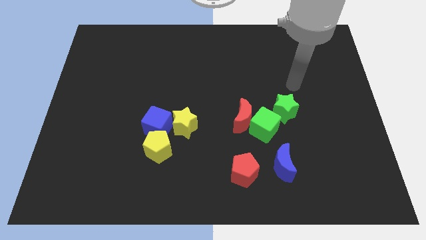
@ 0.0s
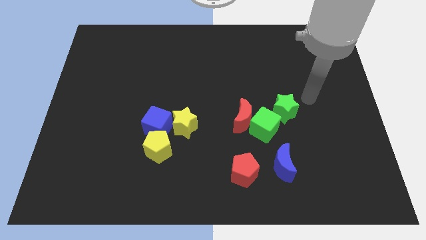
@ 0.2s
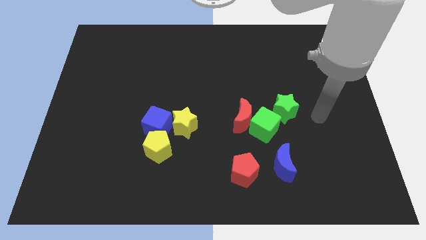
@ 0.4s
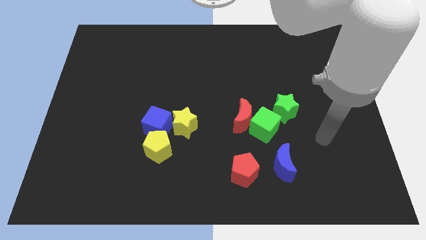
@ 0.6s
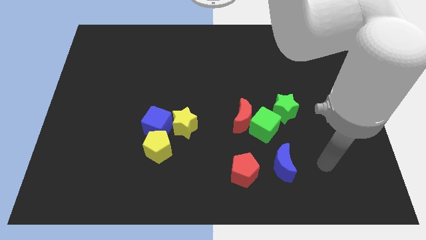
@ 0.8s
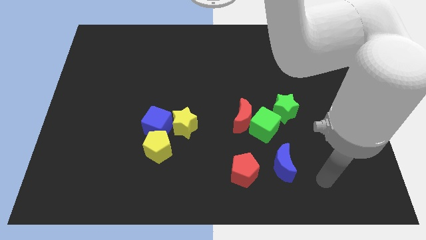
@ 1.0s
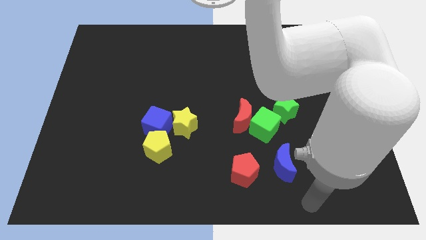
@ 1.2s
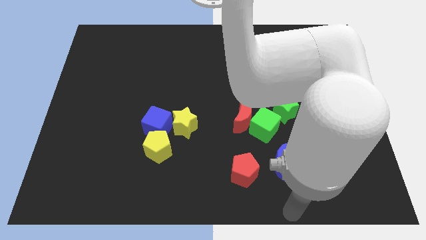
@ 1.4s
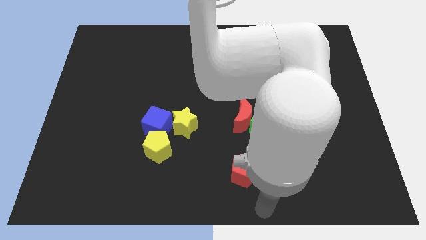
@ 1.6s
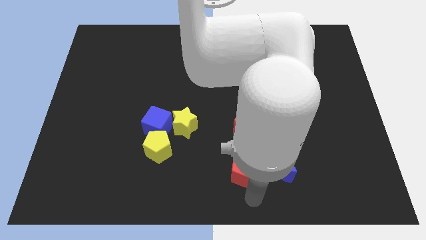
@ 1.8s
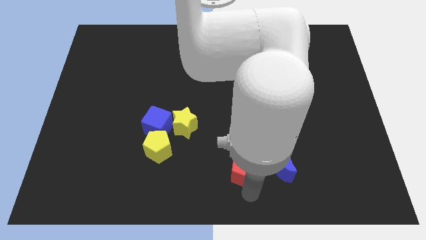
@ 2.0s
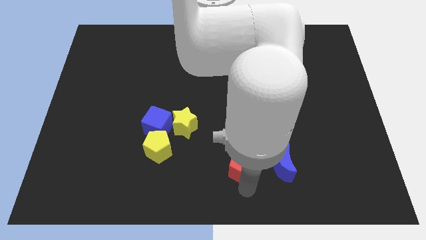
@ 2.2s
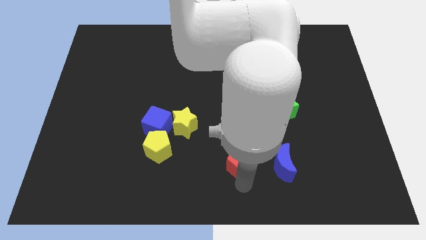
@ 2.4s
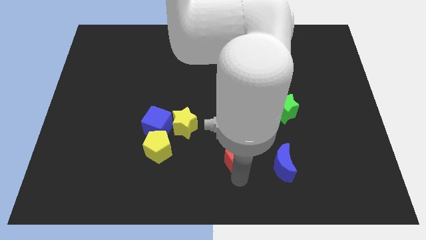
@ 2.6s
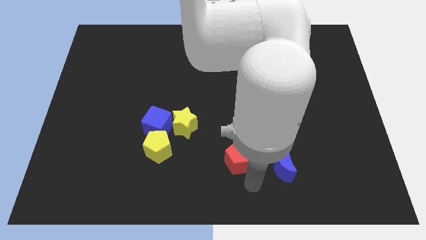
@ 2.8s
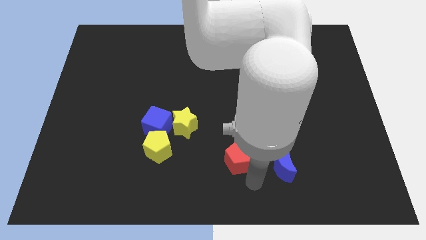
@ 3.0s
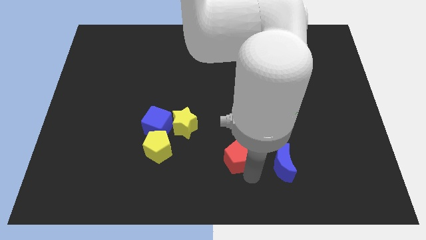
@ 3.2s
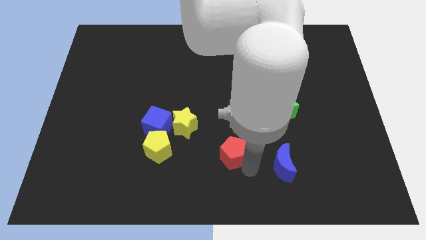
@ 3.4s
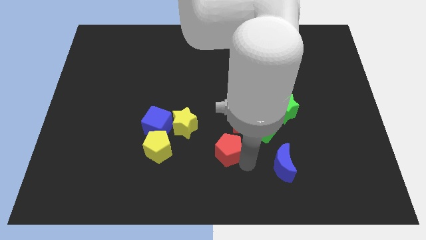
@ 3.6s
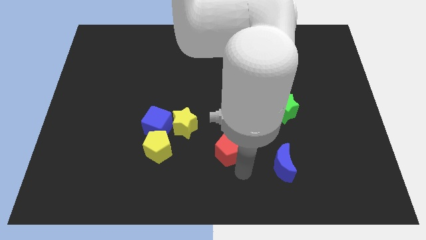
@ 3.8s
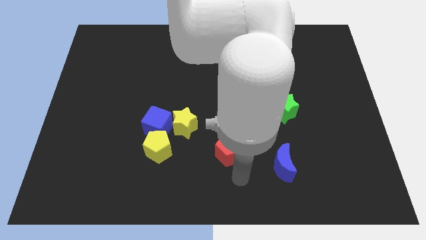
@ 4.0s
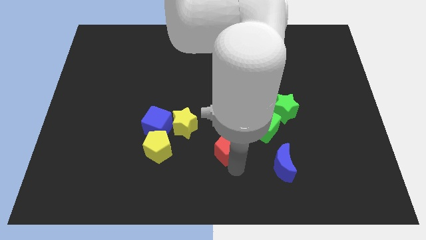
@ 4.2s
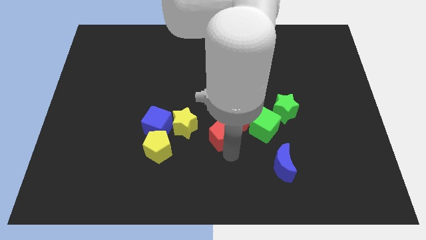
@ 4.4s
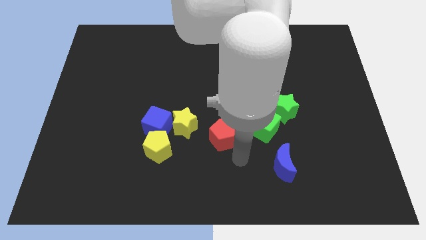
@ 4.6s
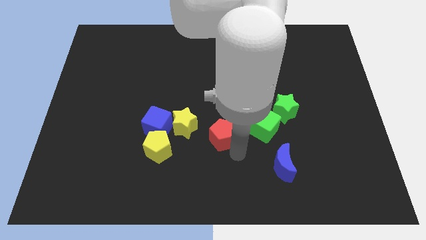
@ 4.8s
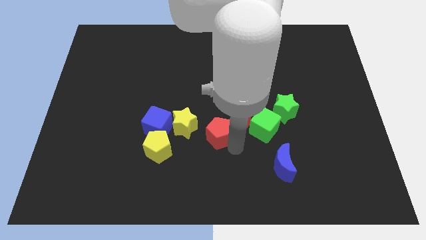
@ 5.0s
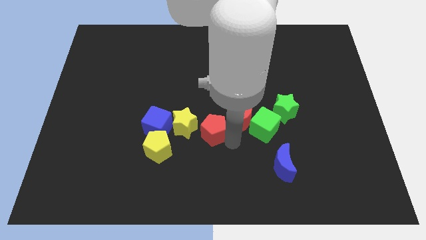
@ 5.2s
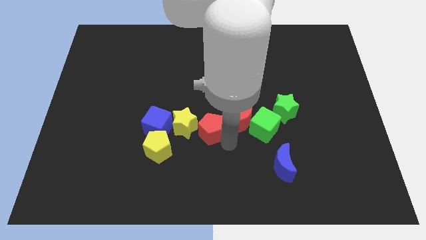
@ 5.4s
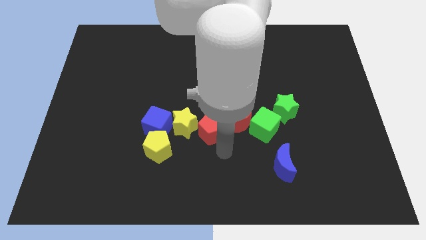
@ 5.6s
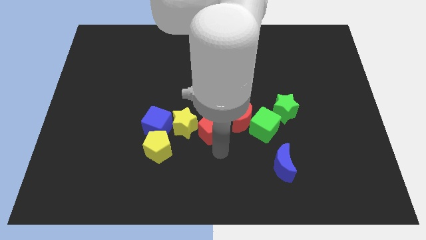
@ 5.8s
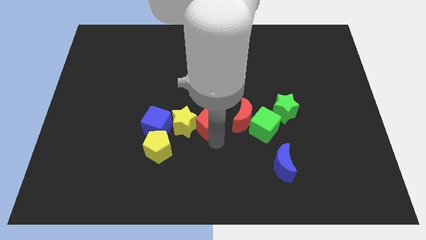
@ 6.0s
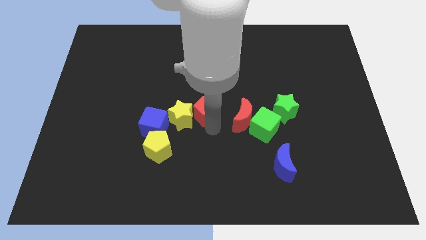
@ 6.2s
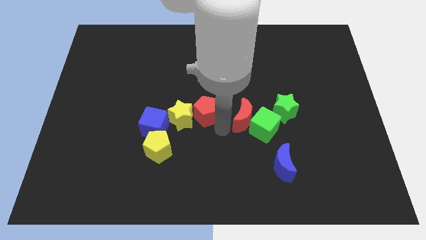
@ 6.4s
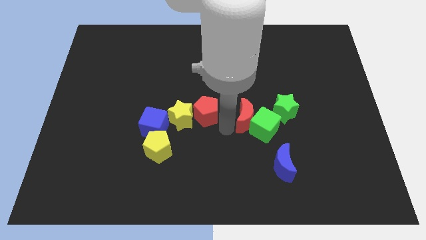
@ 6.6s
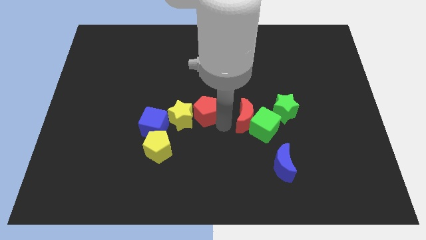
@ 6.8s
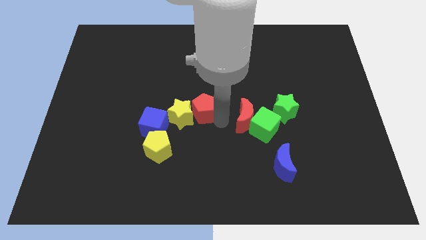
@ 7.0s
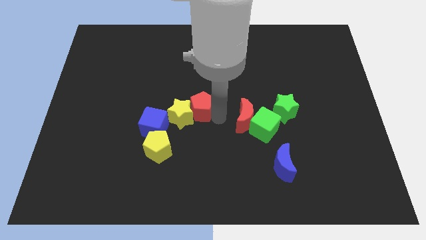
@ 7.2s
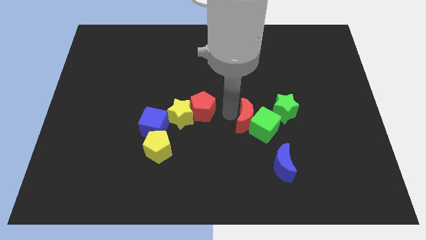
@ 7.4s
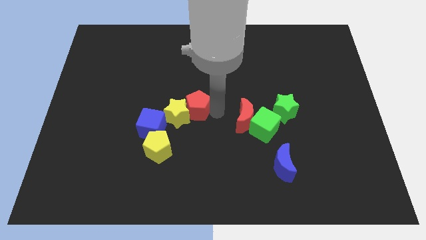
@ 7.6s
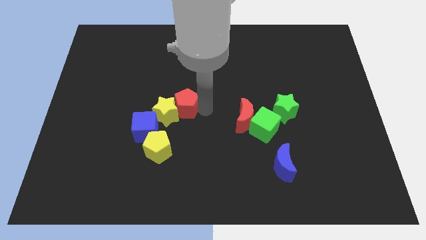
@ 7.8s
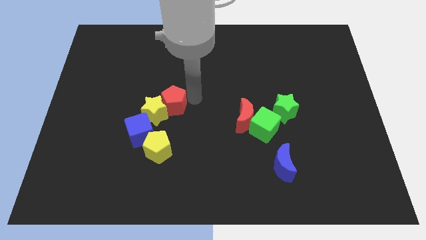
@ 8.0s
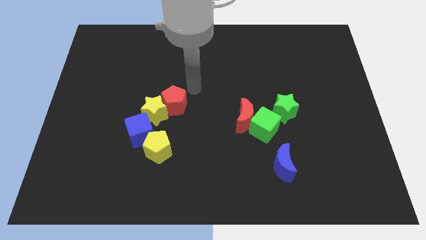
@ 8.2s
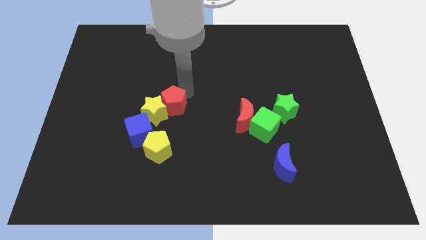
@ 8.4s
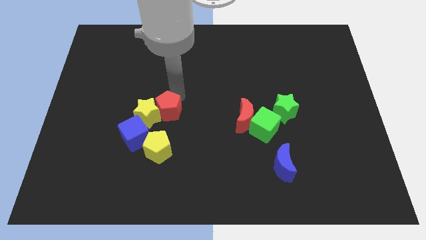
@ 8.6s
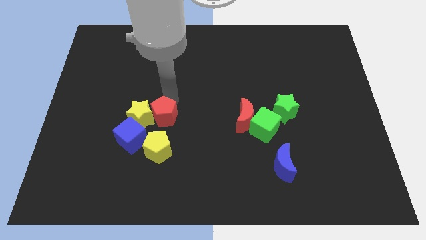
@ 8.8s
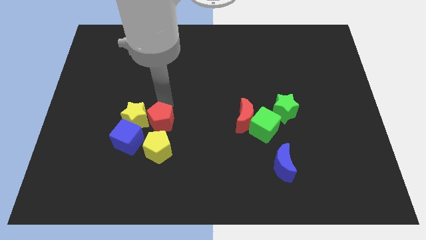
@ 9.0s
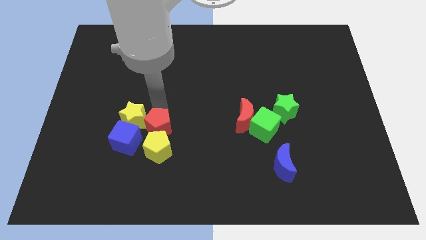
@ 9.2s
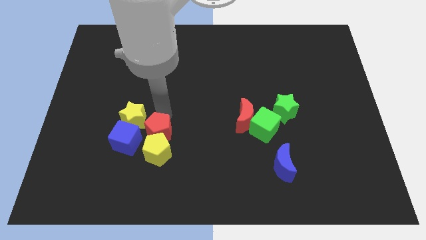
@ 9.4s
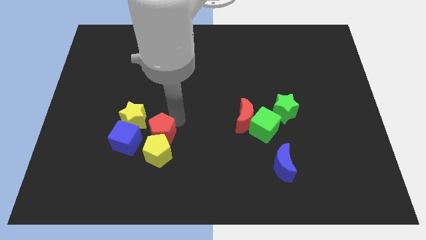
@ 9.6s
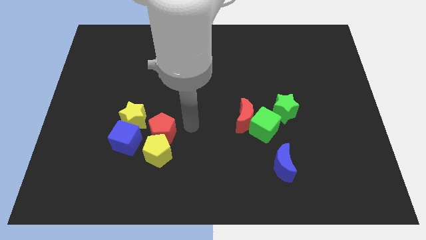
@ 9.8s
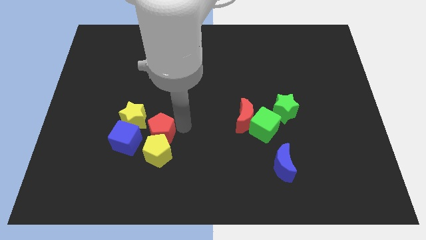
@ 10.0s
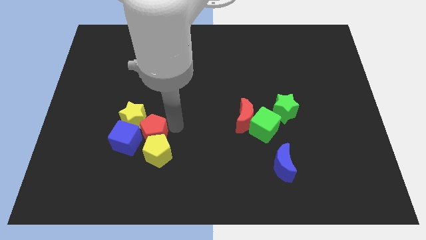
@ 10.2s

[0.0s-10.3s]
move the red pentagon next to the blue cube

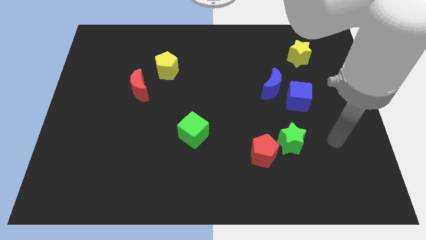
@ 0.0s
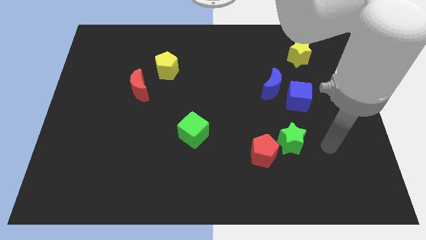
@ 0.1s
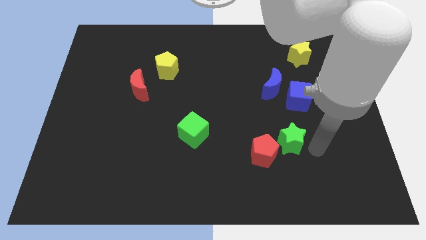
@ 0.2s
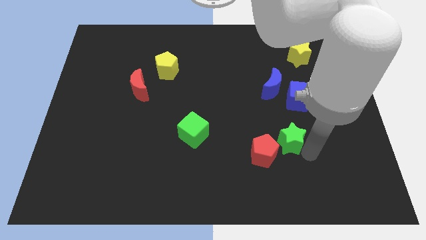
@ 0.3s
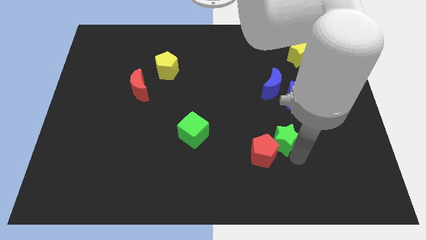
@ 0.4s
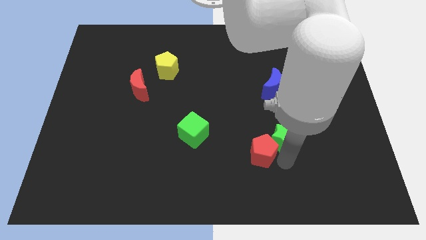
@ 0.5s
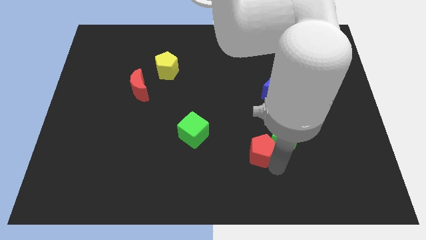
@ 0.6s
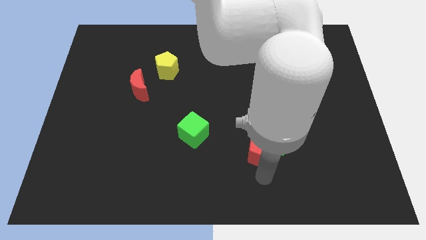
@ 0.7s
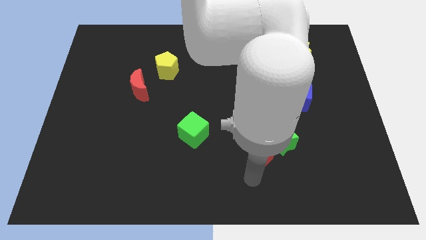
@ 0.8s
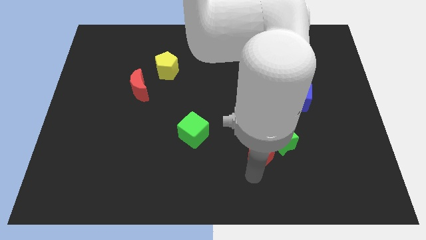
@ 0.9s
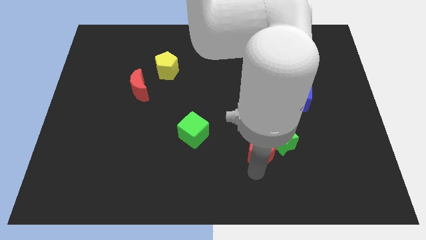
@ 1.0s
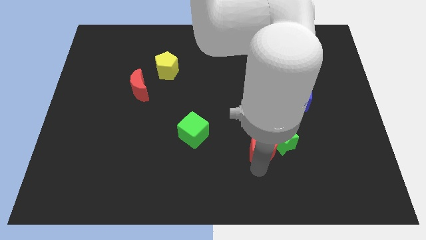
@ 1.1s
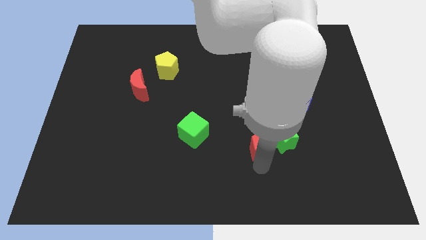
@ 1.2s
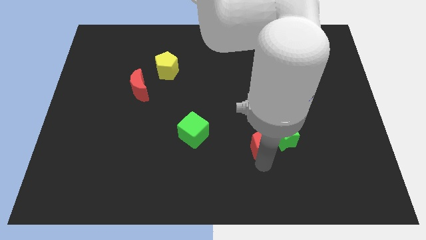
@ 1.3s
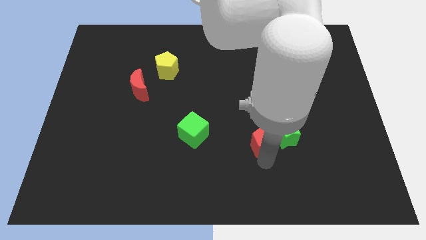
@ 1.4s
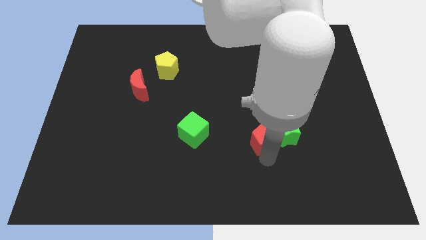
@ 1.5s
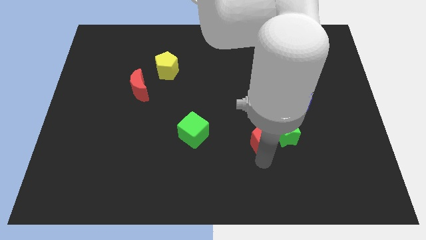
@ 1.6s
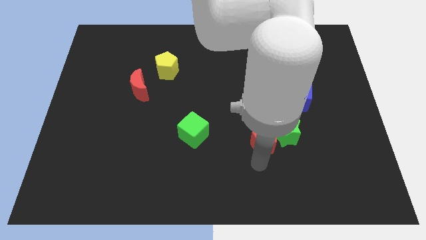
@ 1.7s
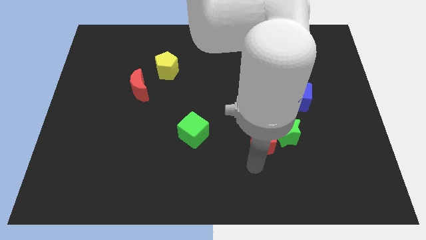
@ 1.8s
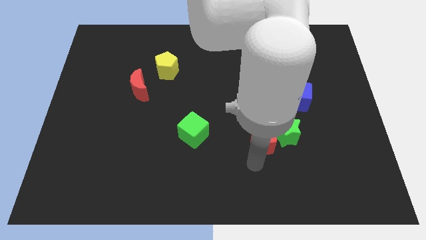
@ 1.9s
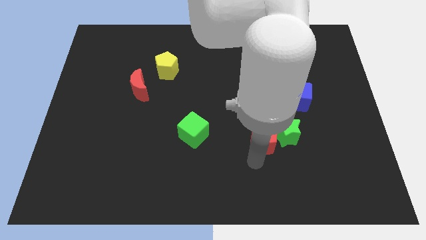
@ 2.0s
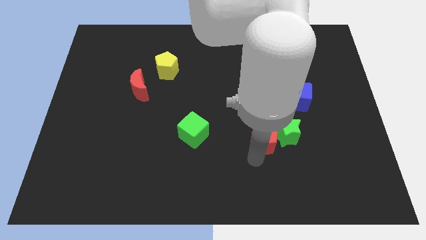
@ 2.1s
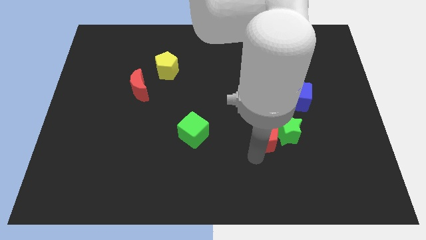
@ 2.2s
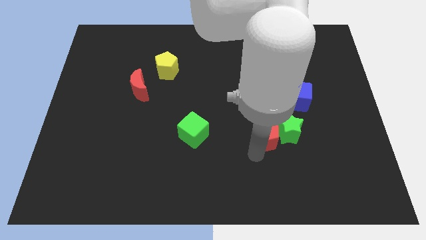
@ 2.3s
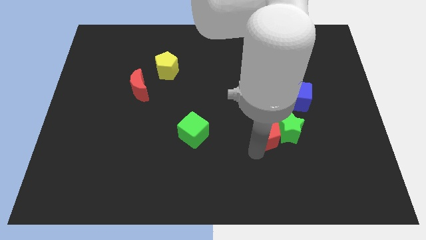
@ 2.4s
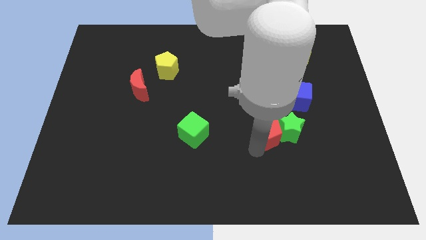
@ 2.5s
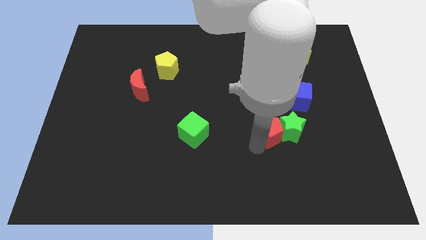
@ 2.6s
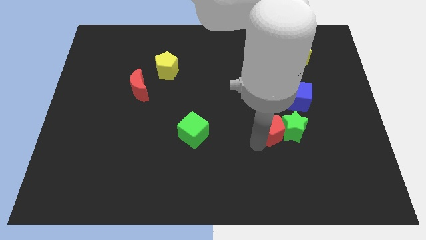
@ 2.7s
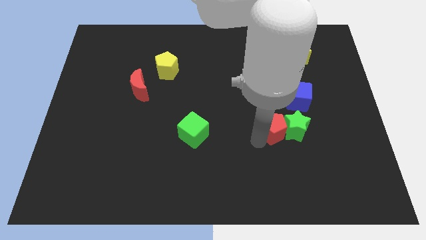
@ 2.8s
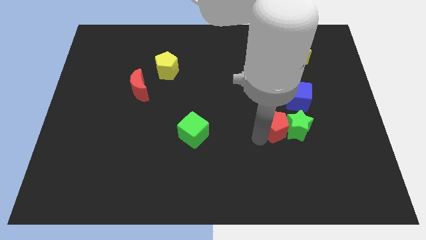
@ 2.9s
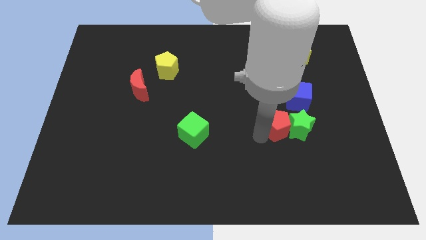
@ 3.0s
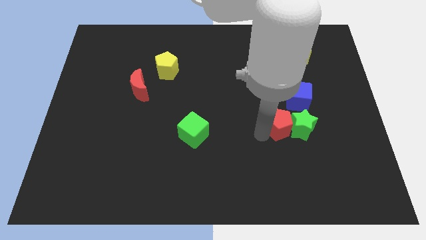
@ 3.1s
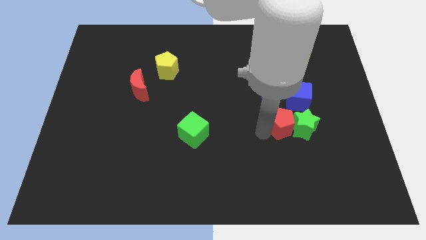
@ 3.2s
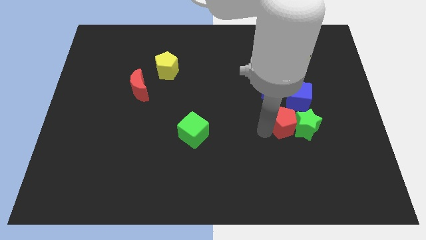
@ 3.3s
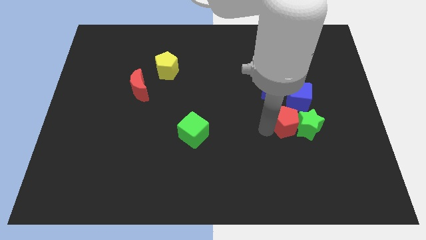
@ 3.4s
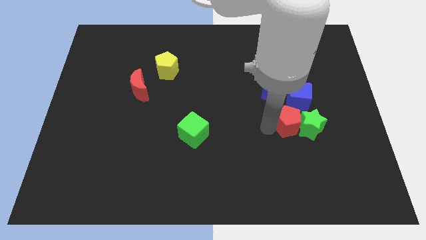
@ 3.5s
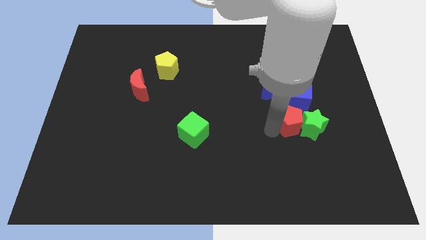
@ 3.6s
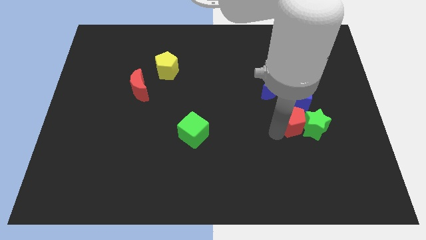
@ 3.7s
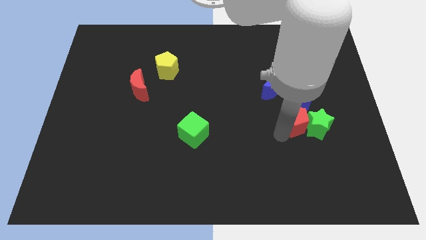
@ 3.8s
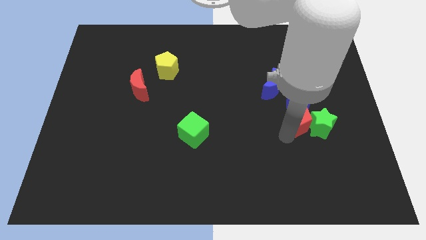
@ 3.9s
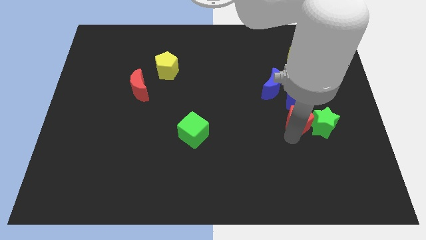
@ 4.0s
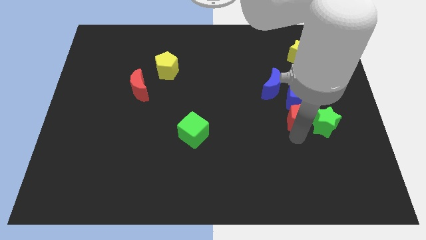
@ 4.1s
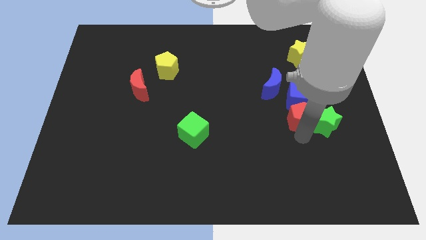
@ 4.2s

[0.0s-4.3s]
push the red pentagon towards the blue cube
